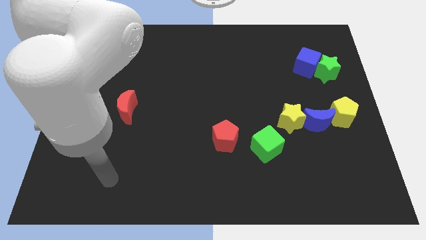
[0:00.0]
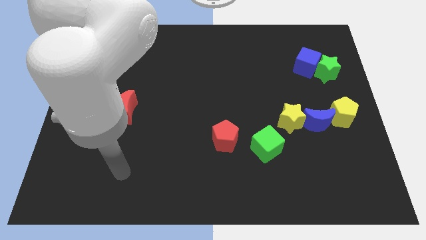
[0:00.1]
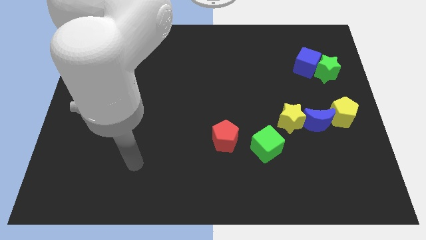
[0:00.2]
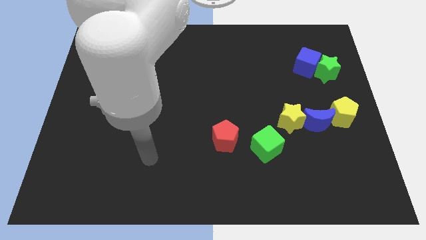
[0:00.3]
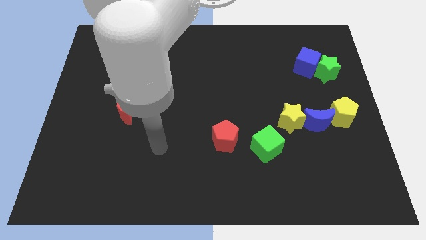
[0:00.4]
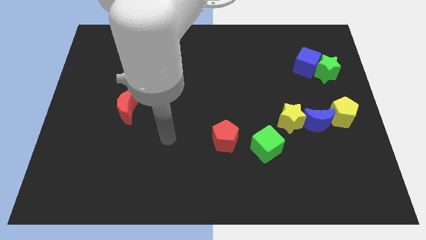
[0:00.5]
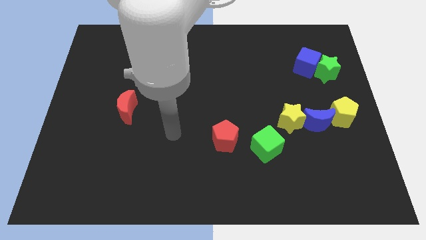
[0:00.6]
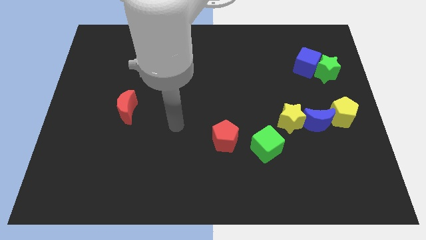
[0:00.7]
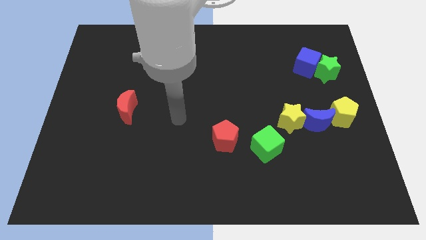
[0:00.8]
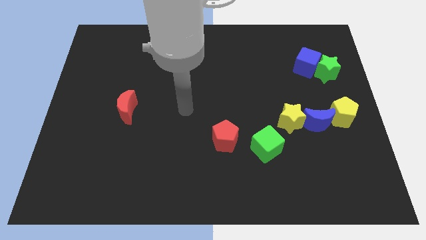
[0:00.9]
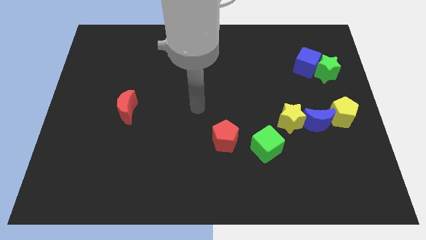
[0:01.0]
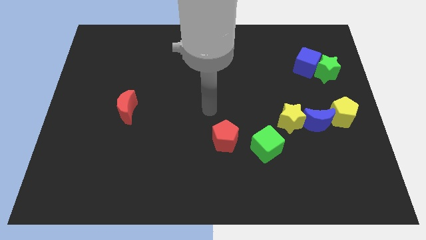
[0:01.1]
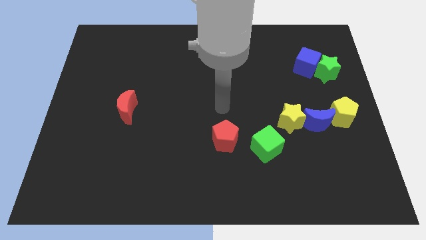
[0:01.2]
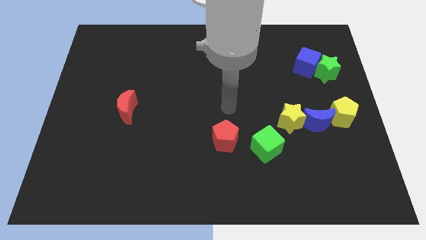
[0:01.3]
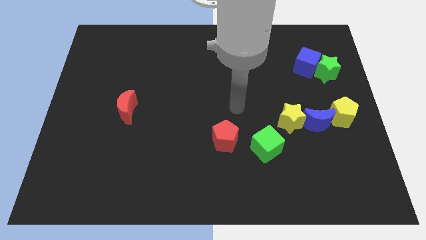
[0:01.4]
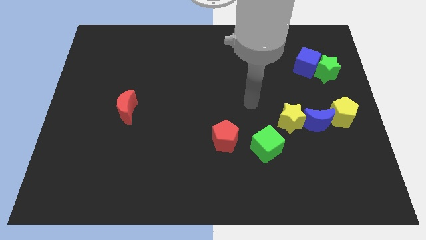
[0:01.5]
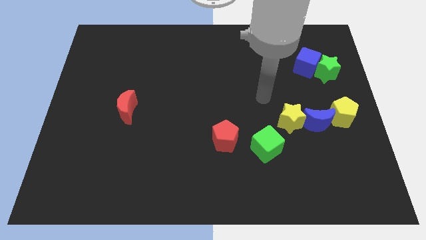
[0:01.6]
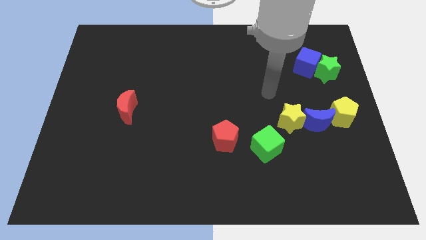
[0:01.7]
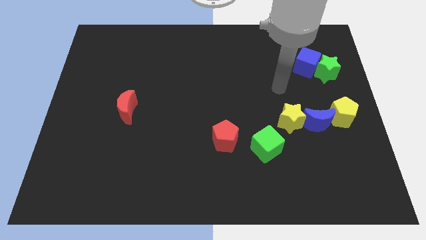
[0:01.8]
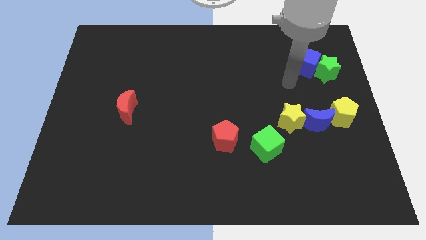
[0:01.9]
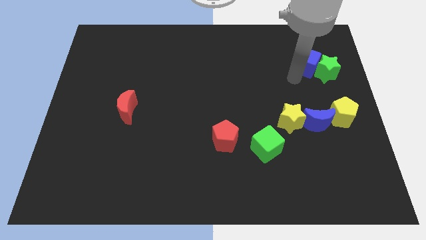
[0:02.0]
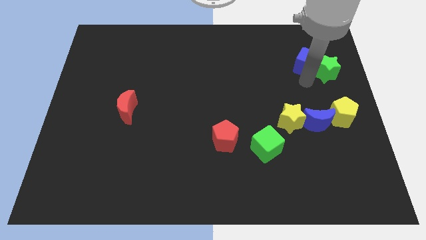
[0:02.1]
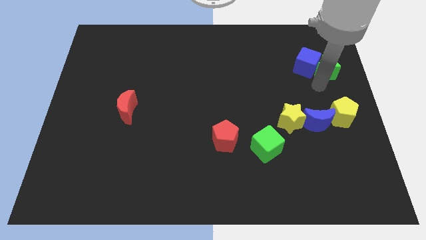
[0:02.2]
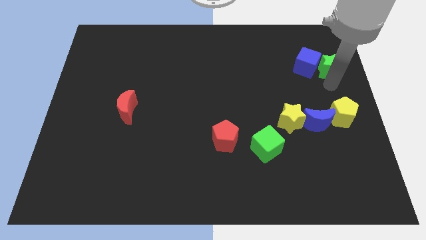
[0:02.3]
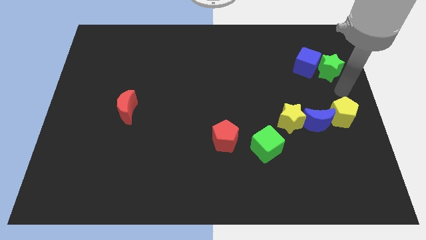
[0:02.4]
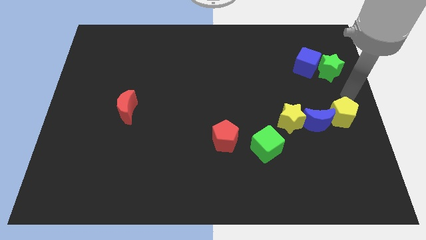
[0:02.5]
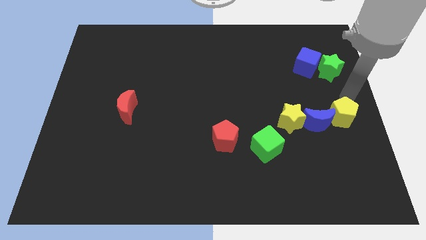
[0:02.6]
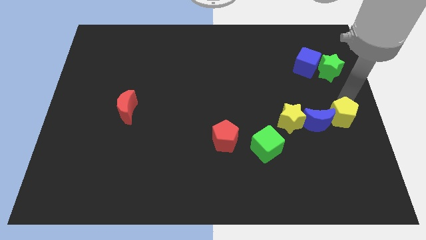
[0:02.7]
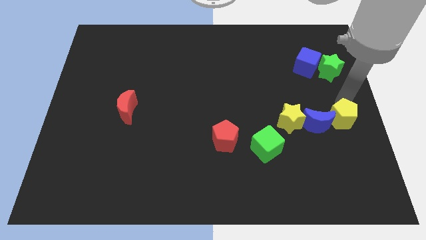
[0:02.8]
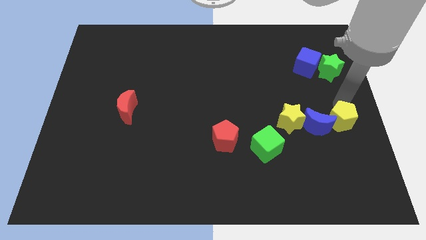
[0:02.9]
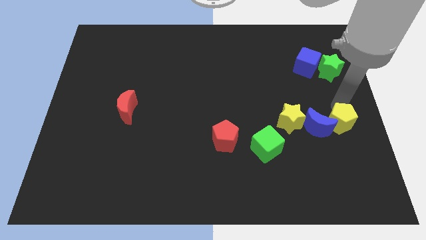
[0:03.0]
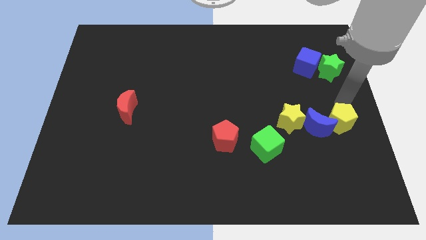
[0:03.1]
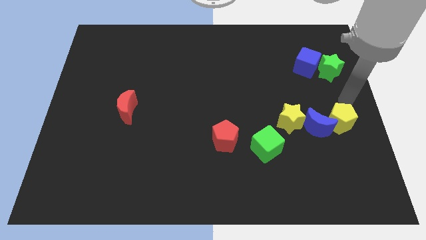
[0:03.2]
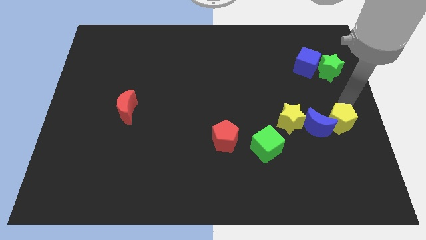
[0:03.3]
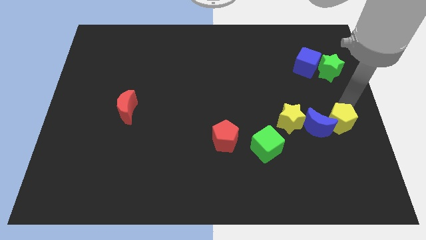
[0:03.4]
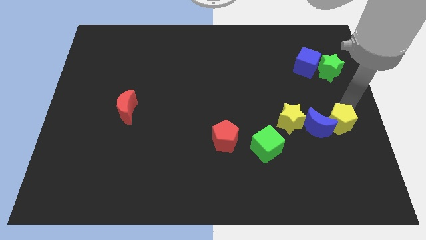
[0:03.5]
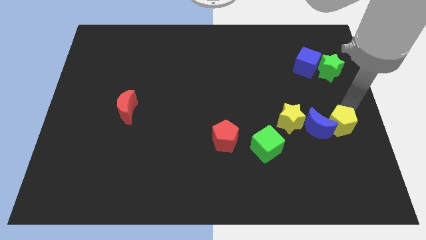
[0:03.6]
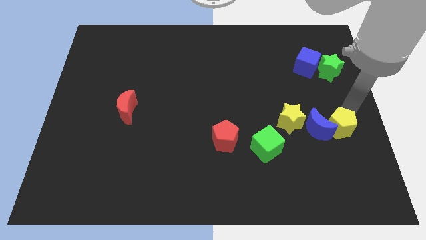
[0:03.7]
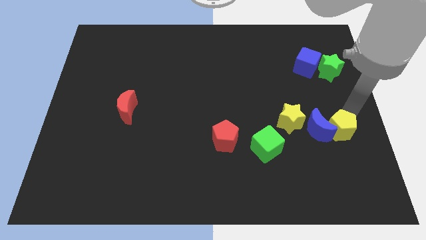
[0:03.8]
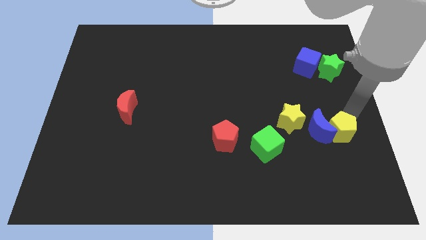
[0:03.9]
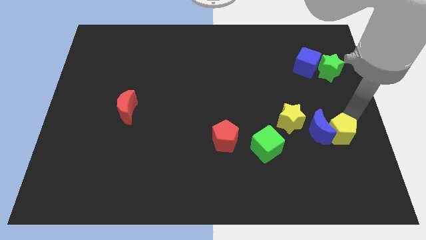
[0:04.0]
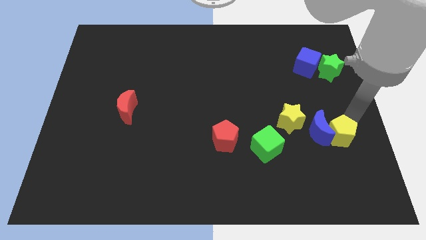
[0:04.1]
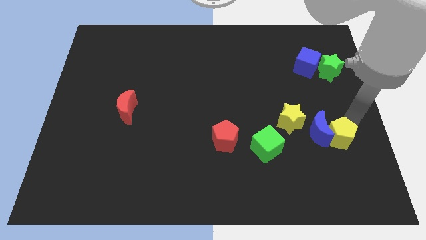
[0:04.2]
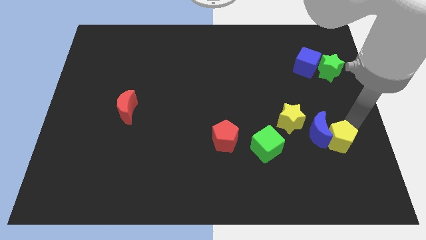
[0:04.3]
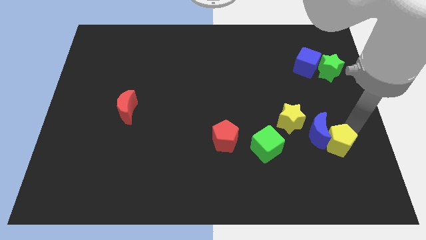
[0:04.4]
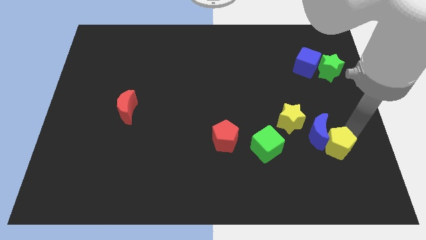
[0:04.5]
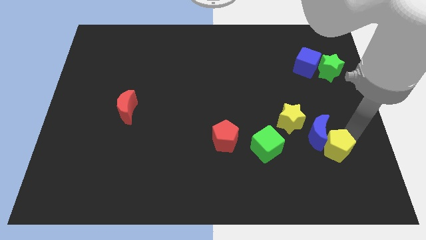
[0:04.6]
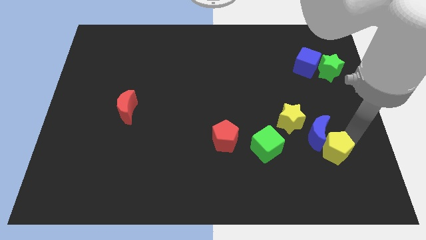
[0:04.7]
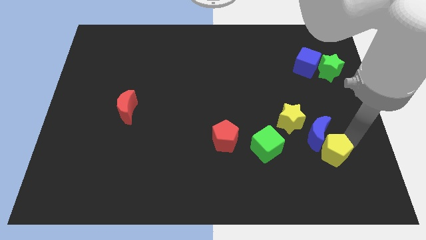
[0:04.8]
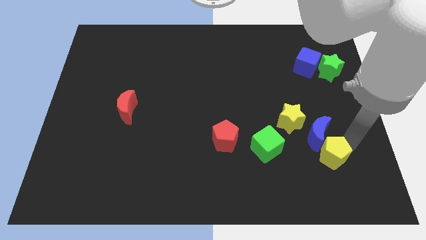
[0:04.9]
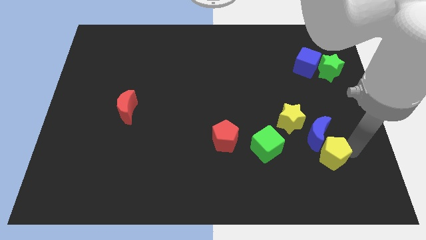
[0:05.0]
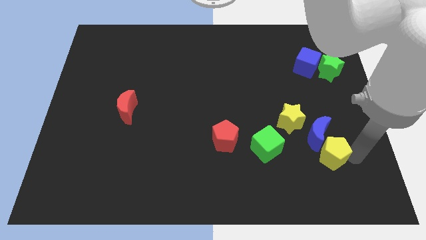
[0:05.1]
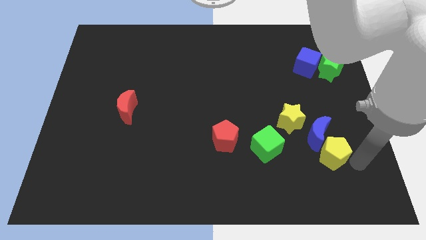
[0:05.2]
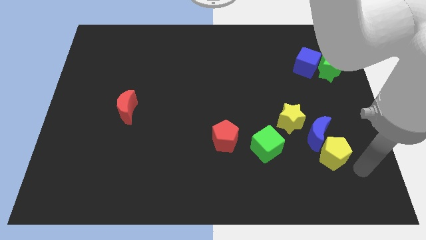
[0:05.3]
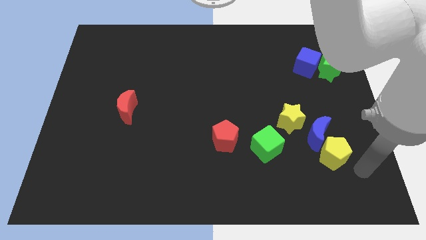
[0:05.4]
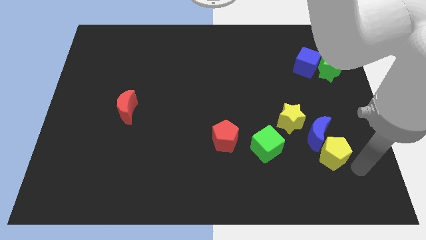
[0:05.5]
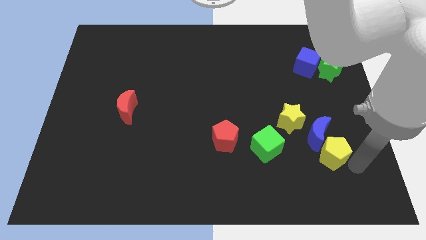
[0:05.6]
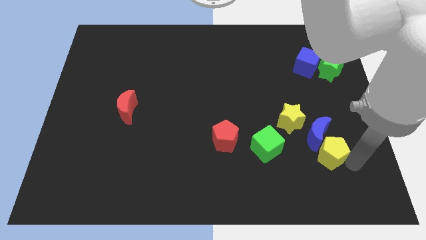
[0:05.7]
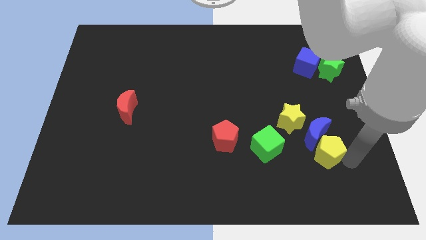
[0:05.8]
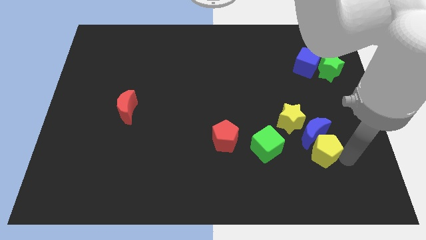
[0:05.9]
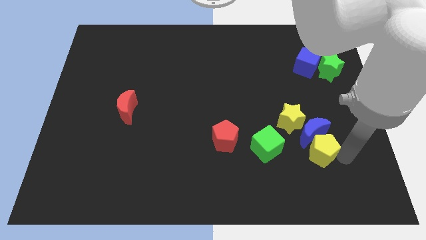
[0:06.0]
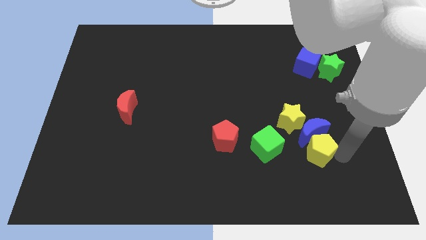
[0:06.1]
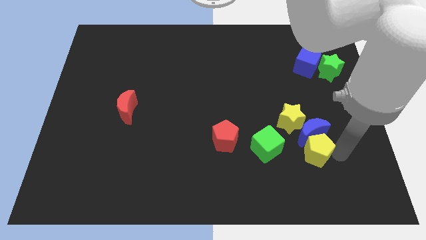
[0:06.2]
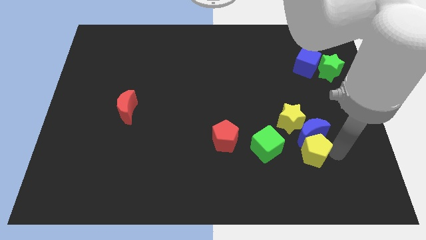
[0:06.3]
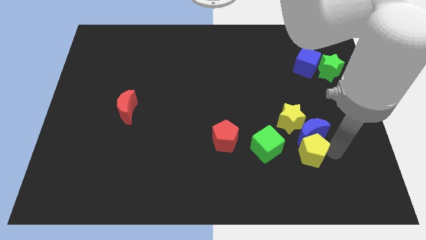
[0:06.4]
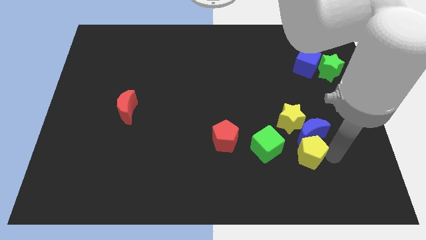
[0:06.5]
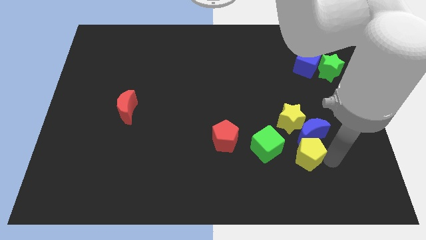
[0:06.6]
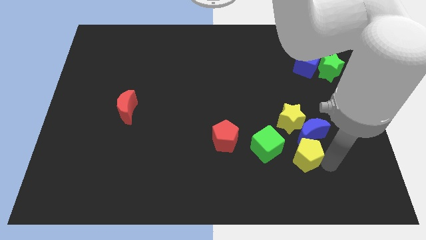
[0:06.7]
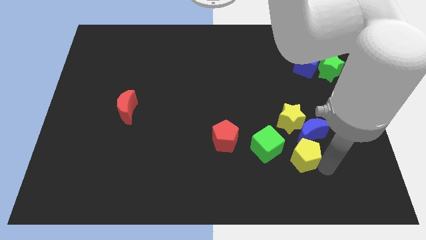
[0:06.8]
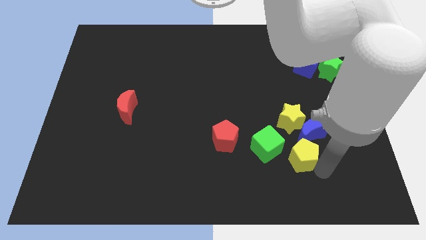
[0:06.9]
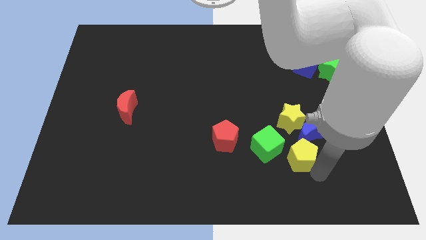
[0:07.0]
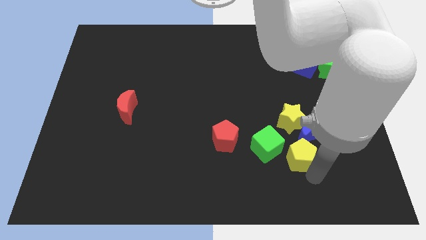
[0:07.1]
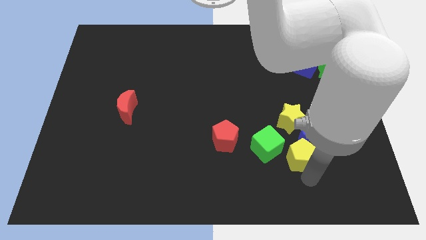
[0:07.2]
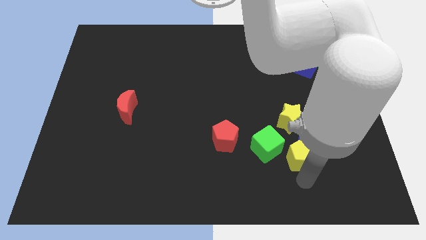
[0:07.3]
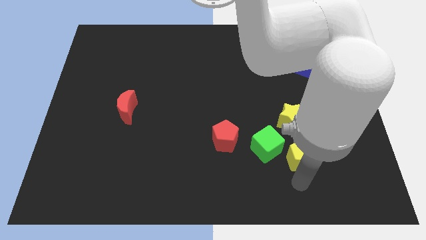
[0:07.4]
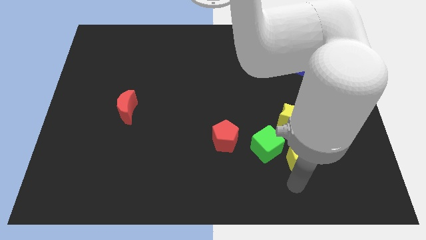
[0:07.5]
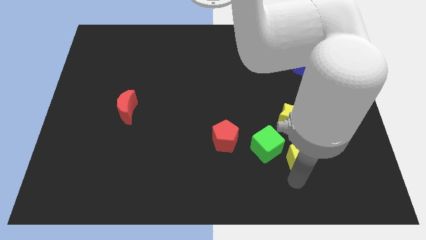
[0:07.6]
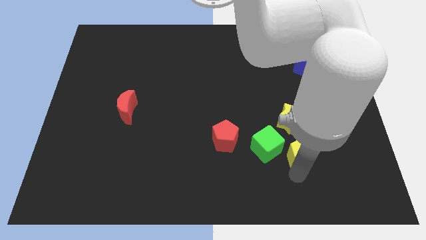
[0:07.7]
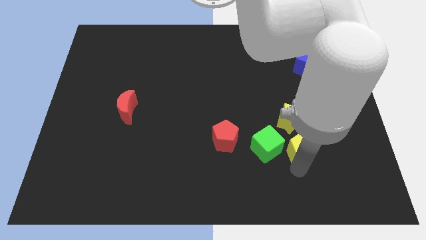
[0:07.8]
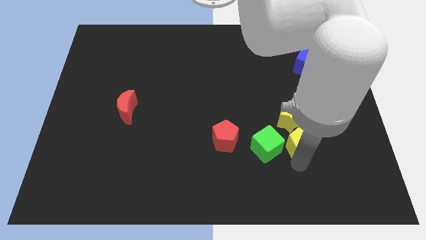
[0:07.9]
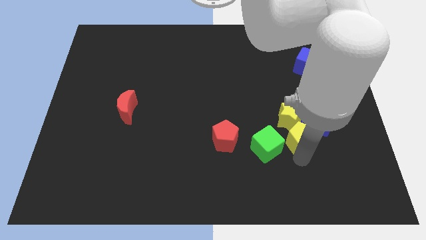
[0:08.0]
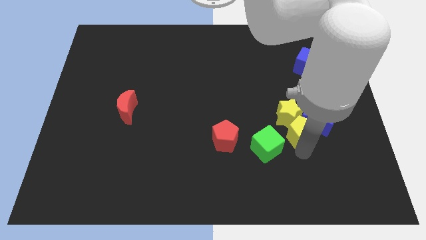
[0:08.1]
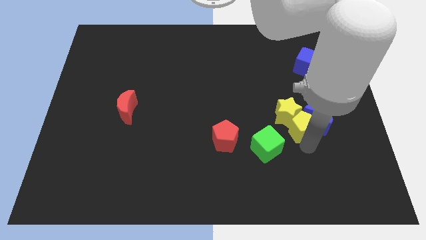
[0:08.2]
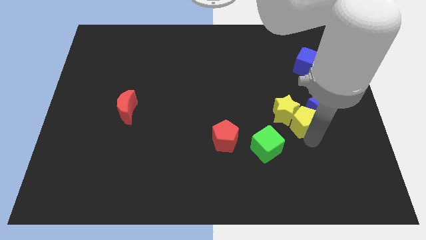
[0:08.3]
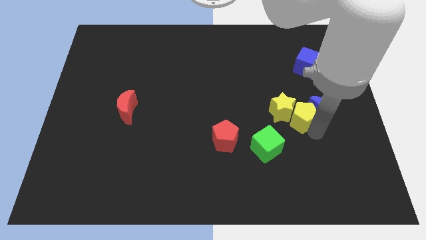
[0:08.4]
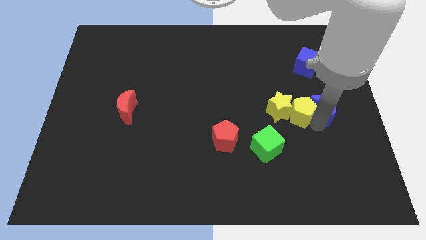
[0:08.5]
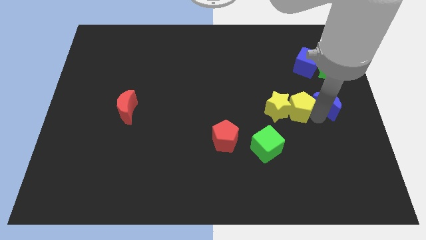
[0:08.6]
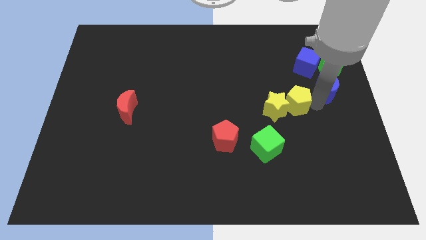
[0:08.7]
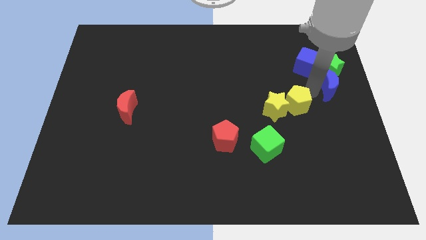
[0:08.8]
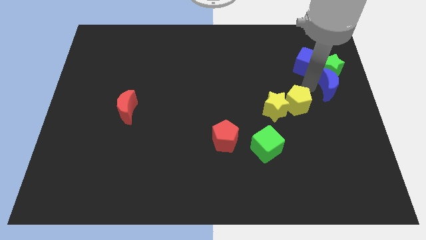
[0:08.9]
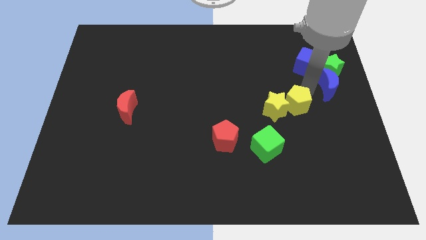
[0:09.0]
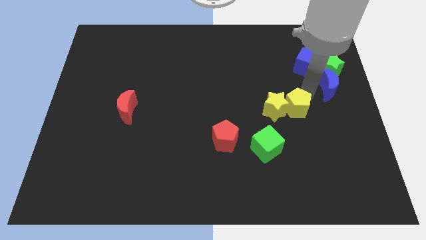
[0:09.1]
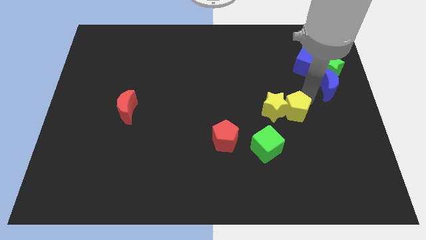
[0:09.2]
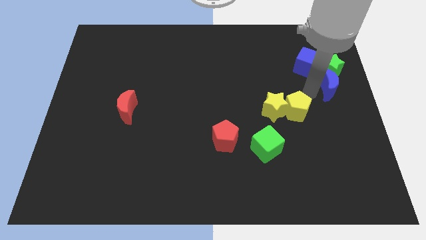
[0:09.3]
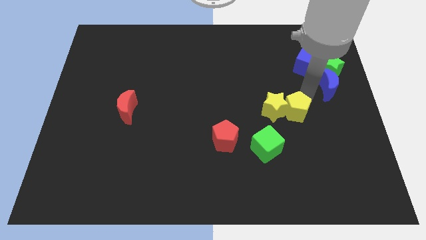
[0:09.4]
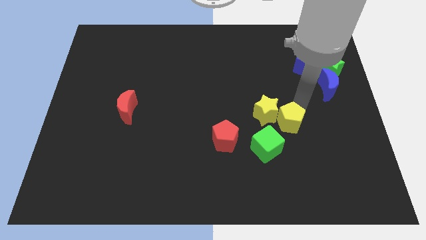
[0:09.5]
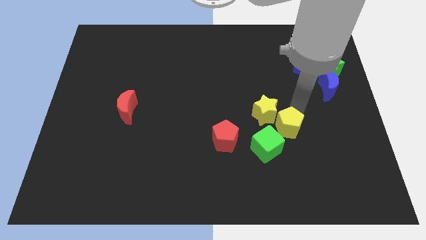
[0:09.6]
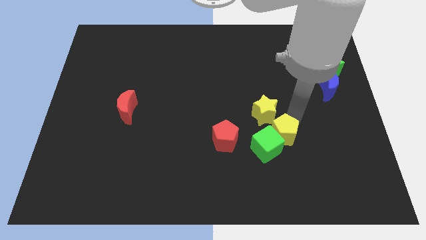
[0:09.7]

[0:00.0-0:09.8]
push the yellow pentagon to the green cube
